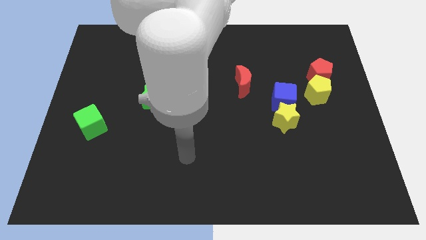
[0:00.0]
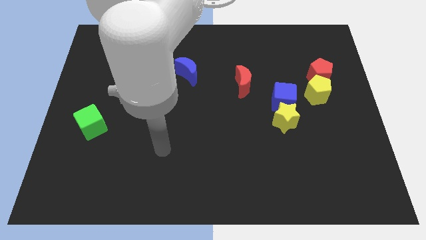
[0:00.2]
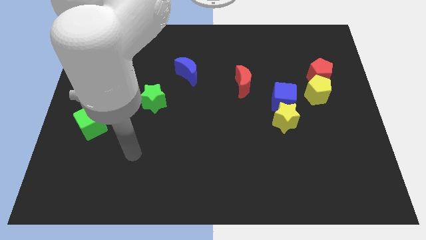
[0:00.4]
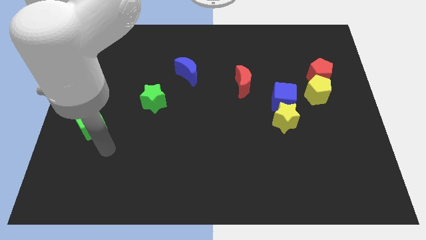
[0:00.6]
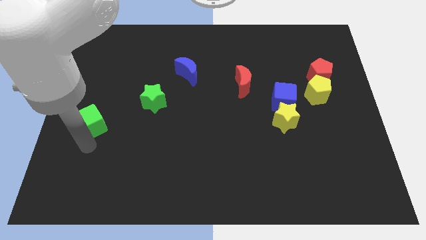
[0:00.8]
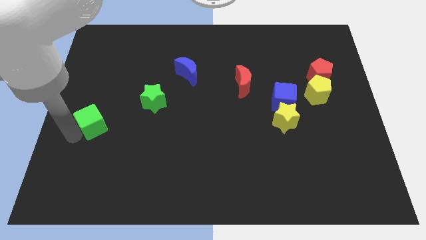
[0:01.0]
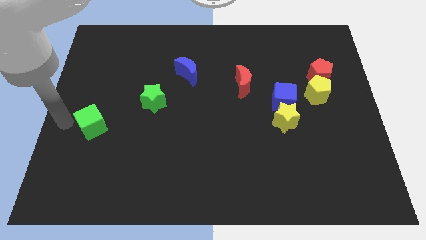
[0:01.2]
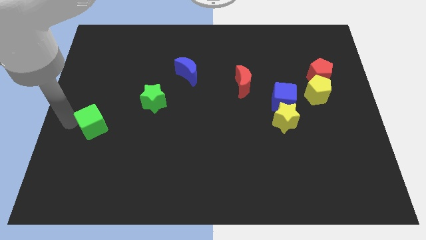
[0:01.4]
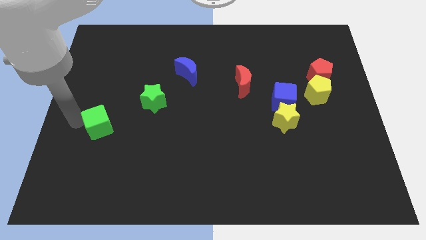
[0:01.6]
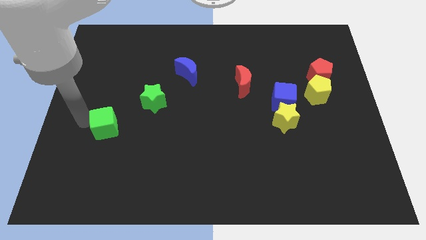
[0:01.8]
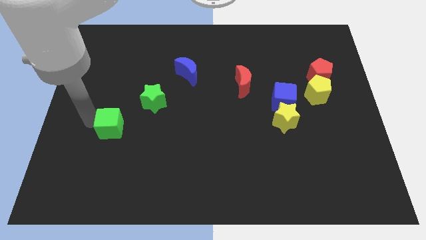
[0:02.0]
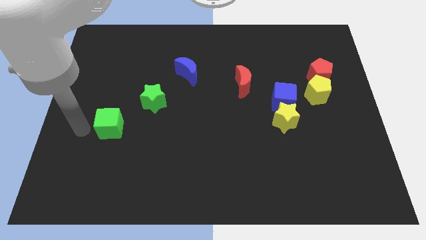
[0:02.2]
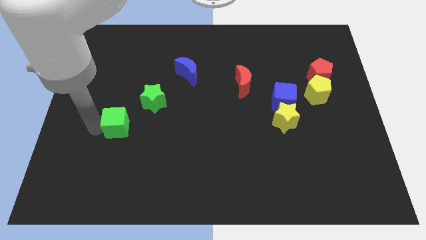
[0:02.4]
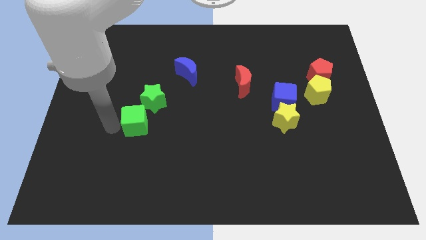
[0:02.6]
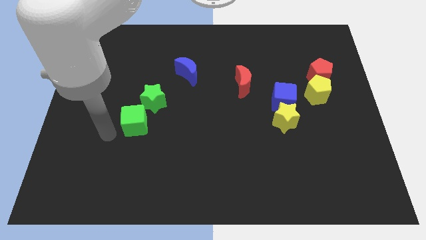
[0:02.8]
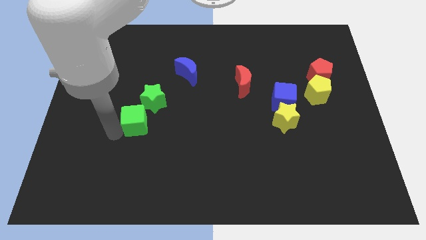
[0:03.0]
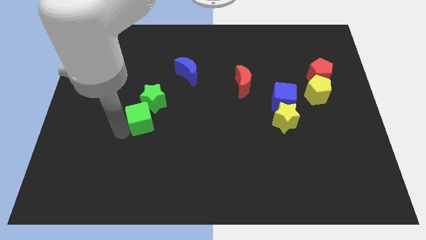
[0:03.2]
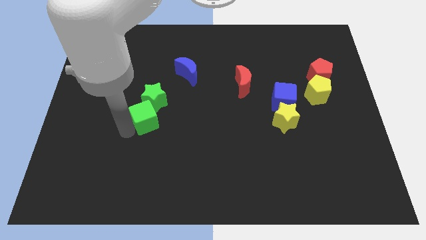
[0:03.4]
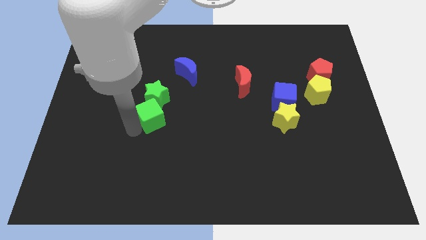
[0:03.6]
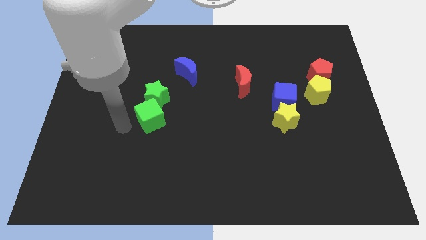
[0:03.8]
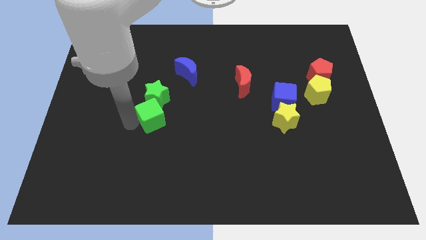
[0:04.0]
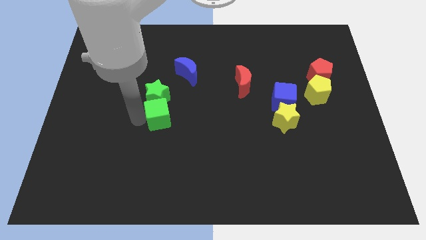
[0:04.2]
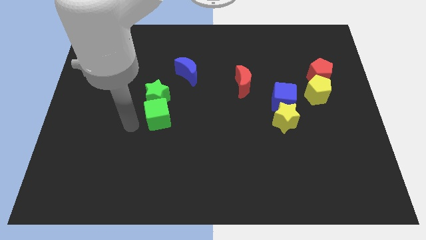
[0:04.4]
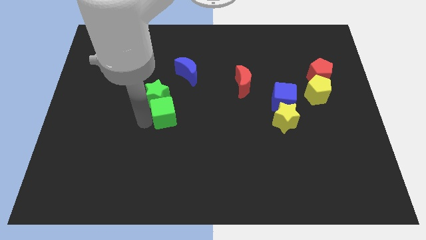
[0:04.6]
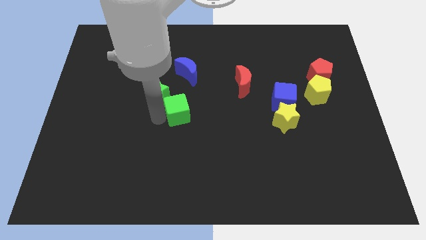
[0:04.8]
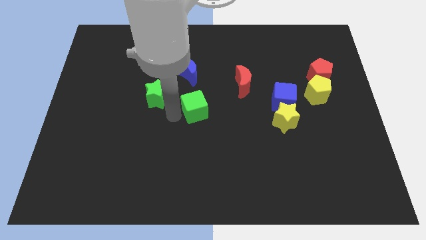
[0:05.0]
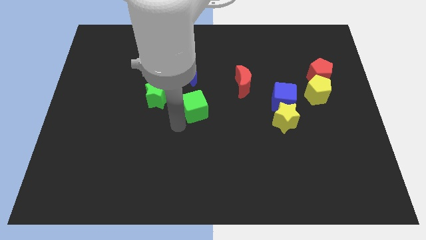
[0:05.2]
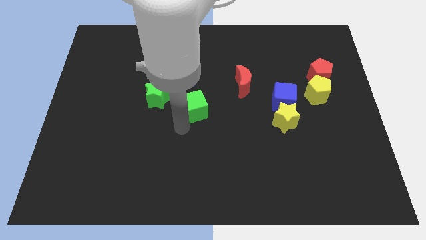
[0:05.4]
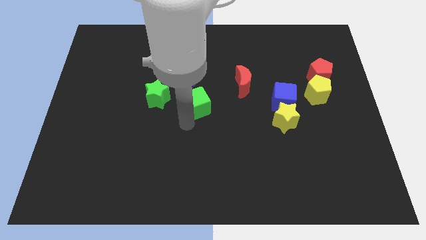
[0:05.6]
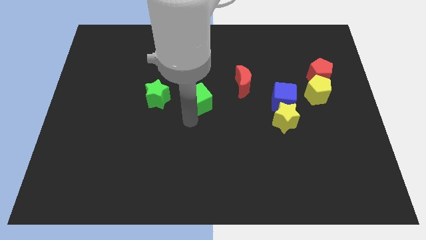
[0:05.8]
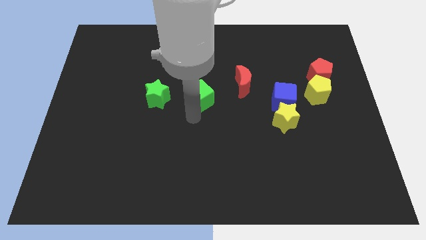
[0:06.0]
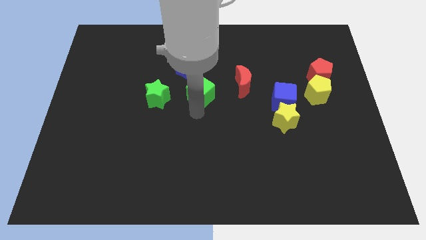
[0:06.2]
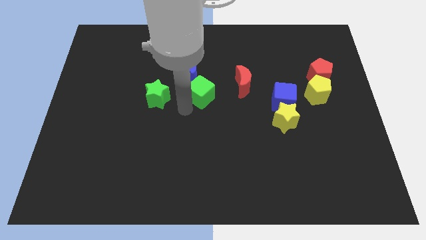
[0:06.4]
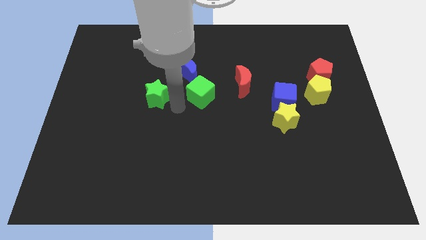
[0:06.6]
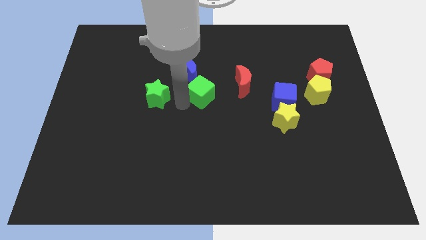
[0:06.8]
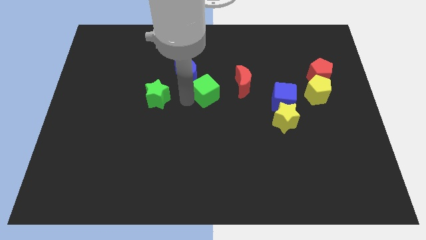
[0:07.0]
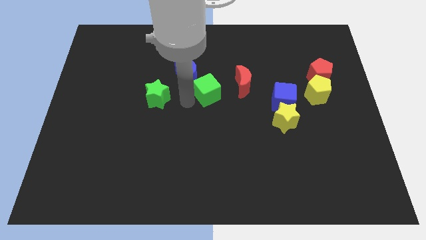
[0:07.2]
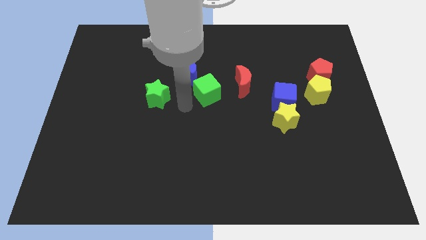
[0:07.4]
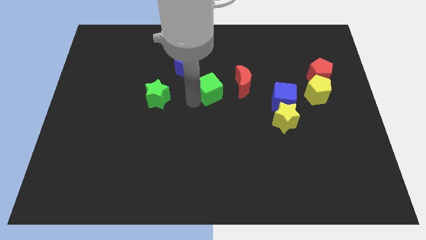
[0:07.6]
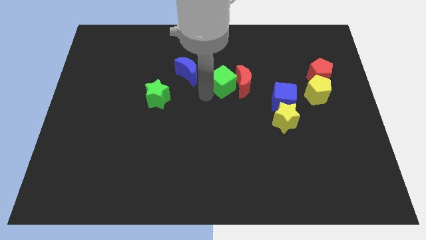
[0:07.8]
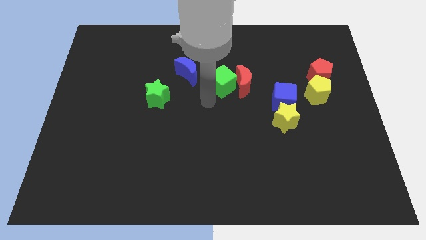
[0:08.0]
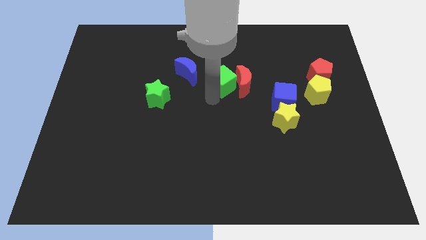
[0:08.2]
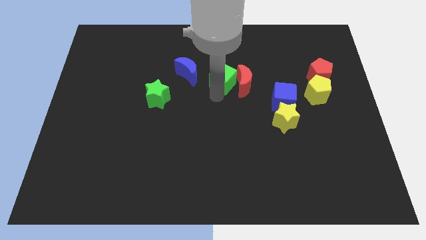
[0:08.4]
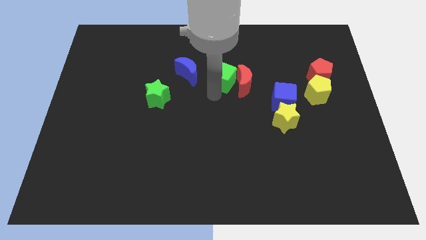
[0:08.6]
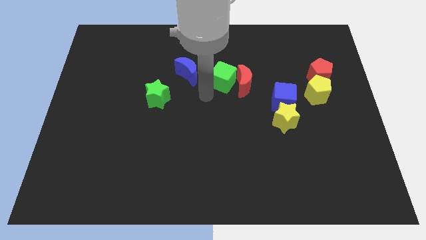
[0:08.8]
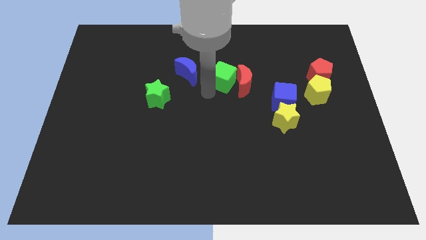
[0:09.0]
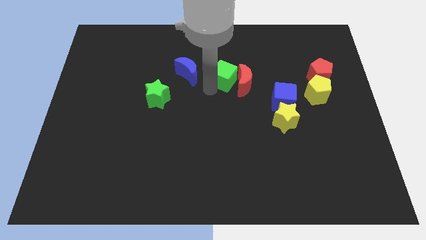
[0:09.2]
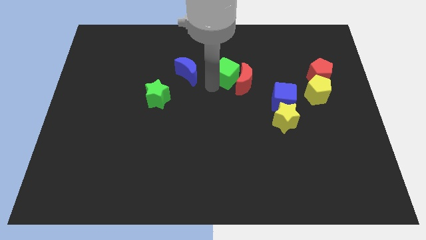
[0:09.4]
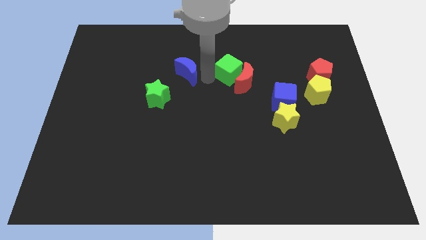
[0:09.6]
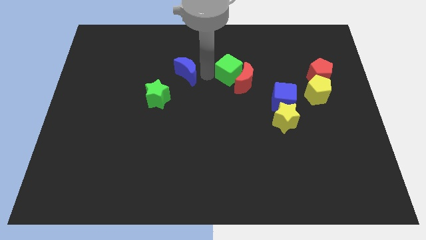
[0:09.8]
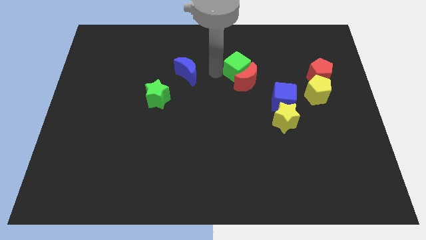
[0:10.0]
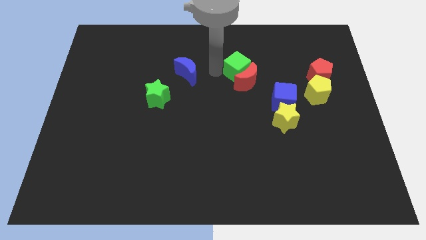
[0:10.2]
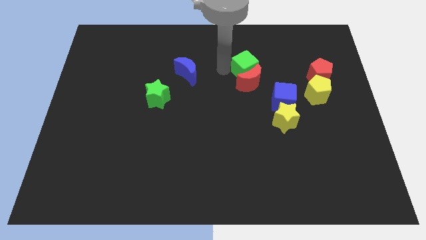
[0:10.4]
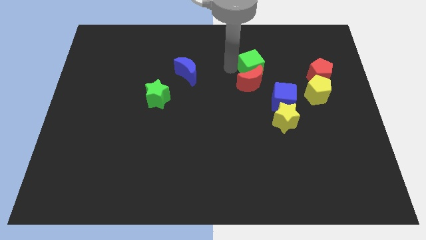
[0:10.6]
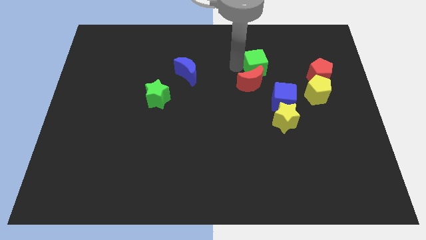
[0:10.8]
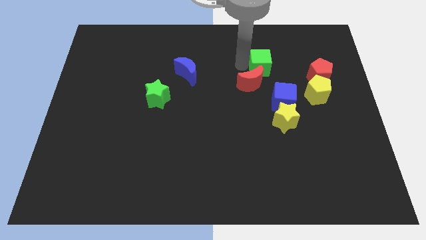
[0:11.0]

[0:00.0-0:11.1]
slide the green cube to the top side of the blue cube

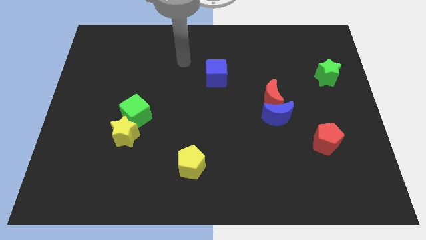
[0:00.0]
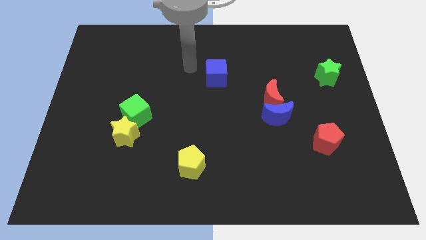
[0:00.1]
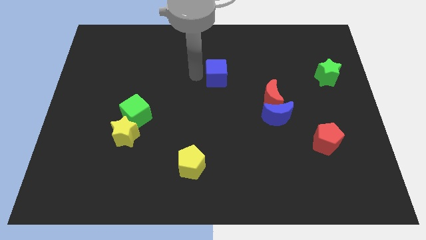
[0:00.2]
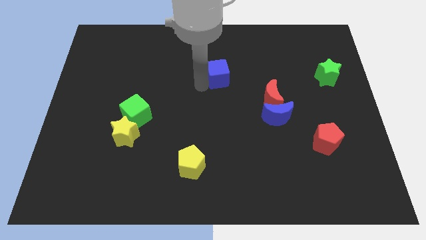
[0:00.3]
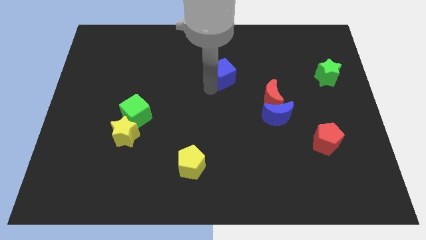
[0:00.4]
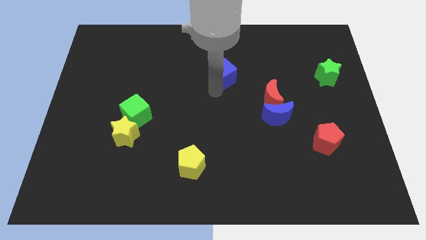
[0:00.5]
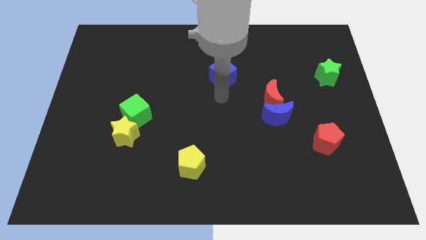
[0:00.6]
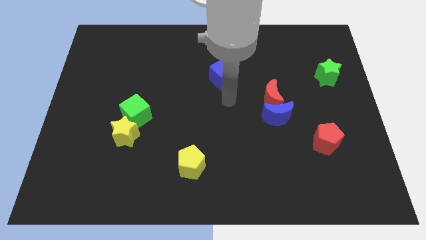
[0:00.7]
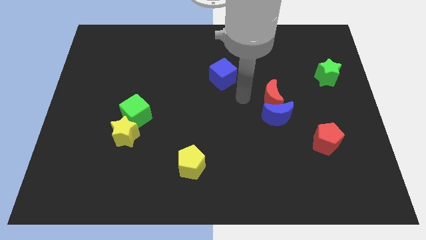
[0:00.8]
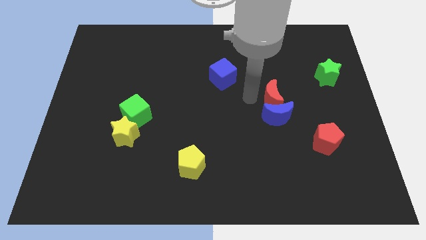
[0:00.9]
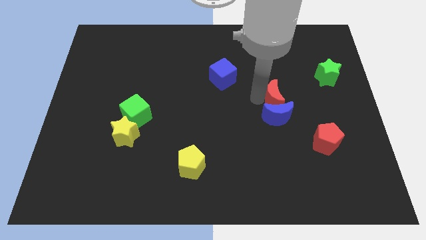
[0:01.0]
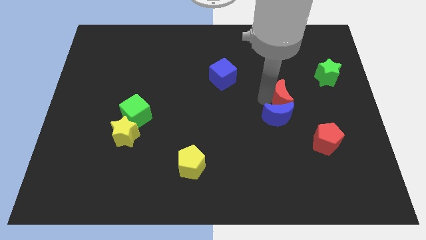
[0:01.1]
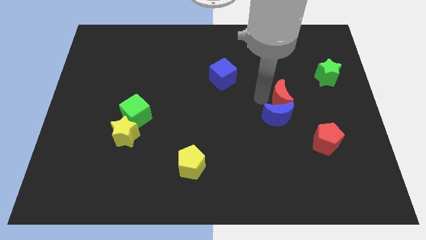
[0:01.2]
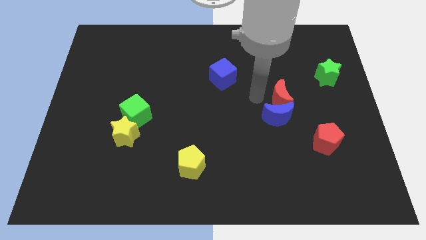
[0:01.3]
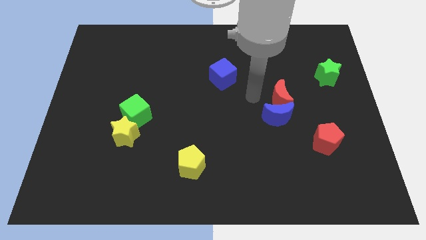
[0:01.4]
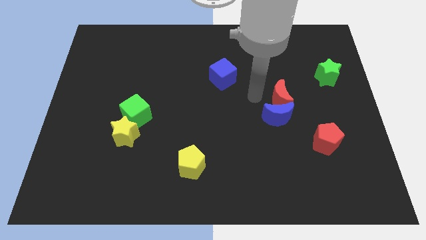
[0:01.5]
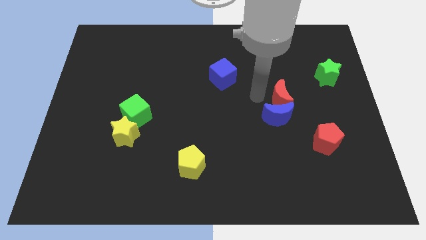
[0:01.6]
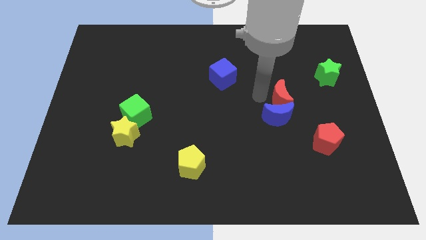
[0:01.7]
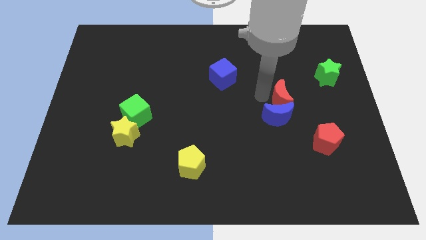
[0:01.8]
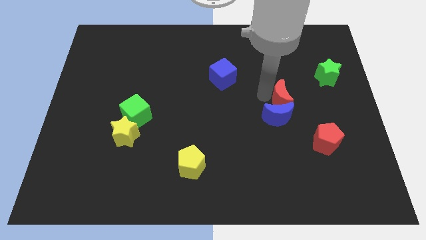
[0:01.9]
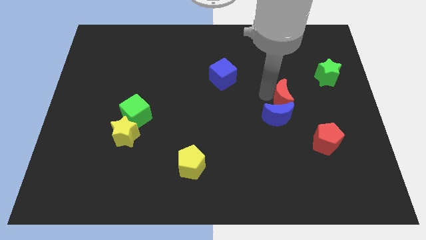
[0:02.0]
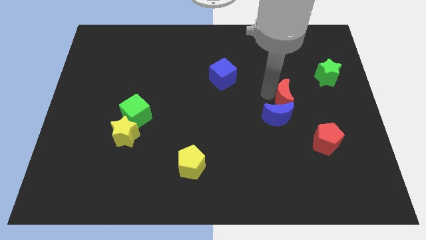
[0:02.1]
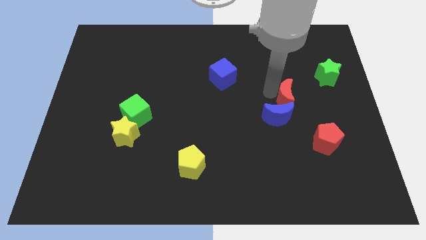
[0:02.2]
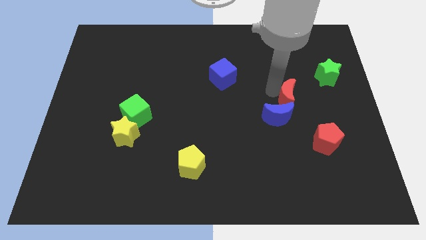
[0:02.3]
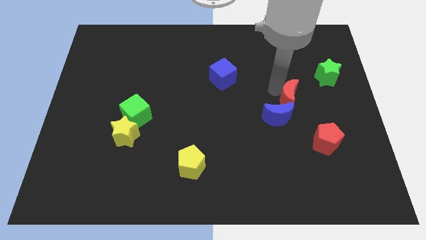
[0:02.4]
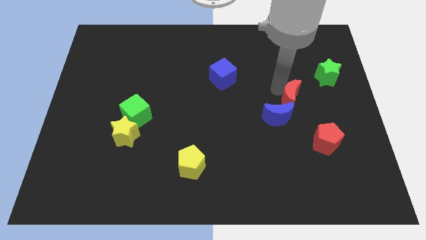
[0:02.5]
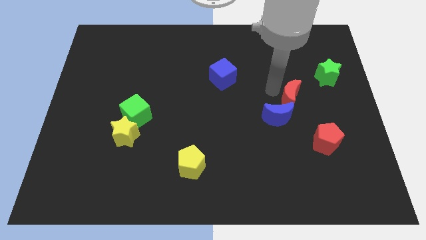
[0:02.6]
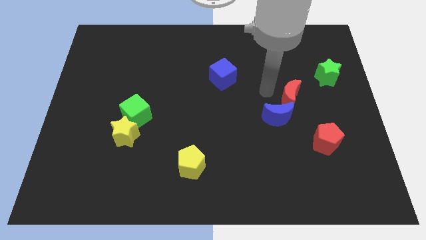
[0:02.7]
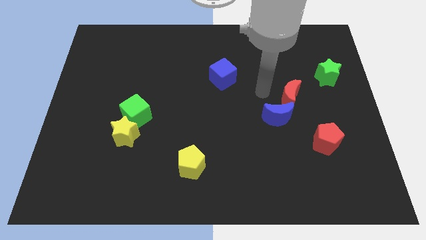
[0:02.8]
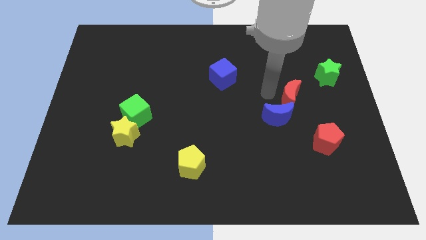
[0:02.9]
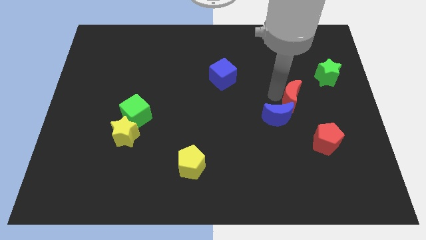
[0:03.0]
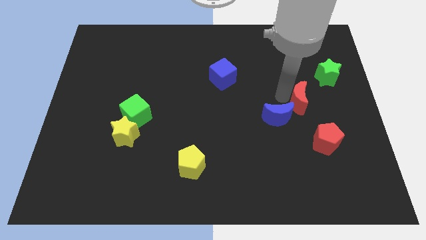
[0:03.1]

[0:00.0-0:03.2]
move the red moon to the top of the red pentagon
